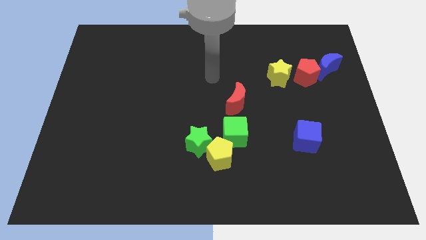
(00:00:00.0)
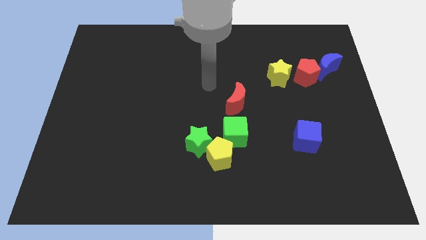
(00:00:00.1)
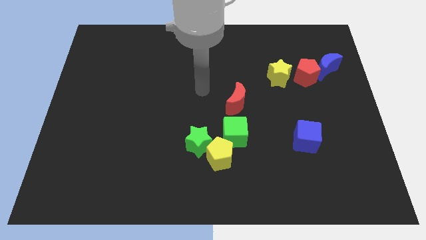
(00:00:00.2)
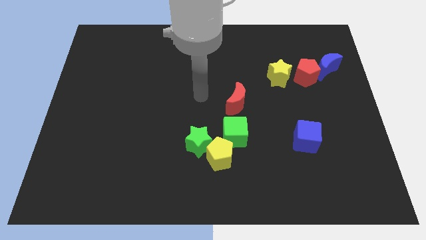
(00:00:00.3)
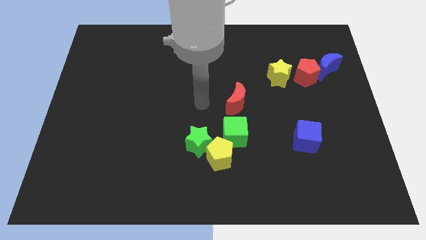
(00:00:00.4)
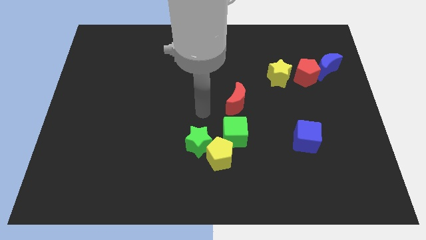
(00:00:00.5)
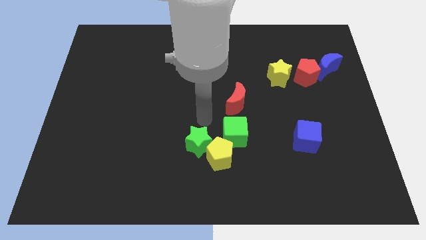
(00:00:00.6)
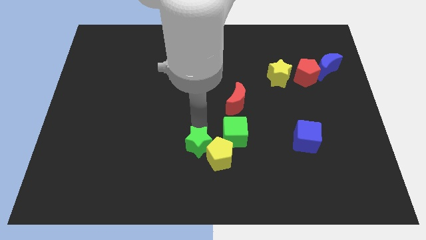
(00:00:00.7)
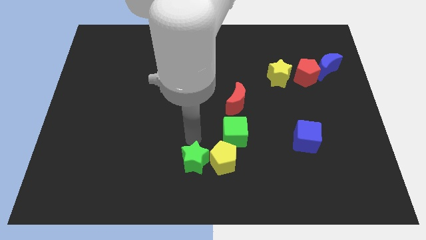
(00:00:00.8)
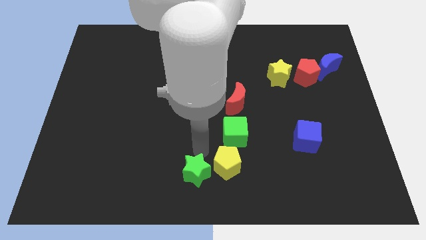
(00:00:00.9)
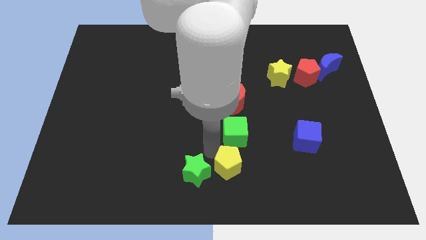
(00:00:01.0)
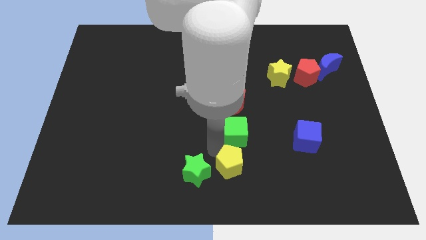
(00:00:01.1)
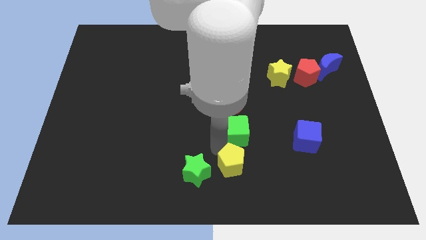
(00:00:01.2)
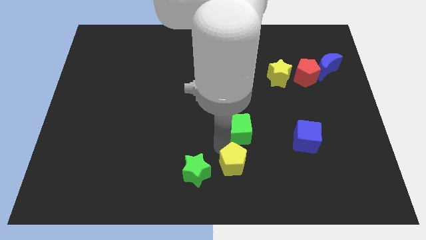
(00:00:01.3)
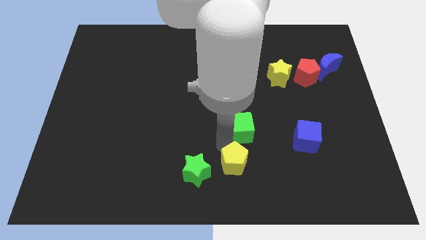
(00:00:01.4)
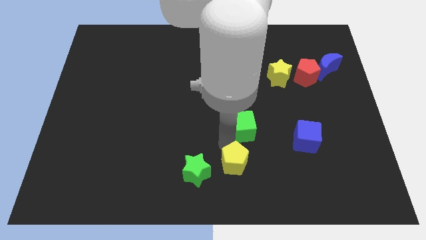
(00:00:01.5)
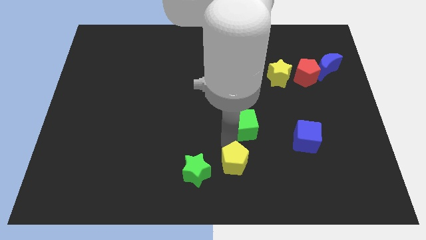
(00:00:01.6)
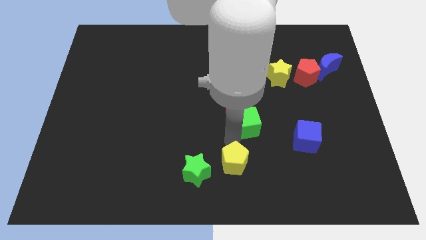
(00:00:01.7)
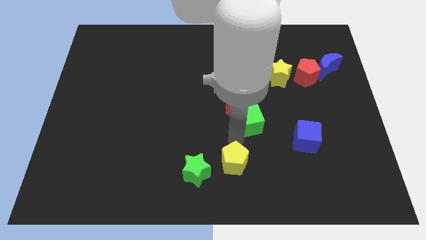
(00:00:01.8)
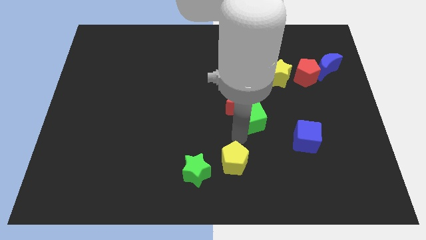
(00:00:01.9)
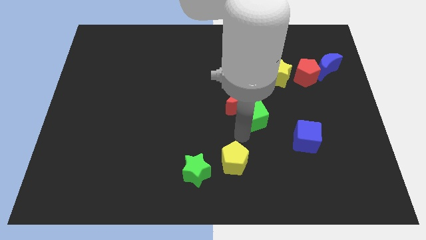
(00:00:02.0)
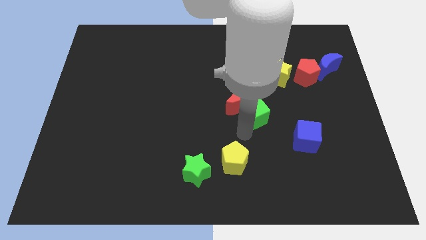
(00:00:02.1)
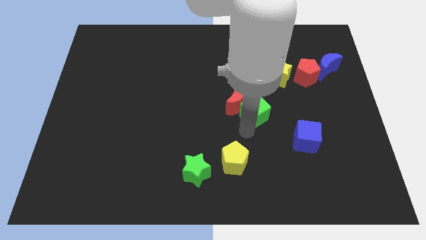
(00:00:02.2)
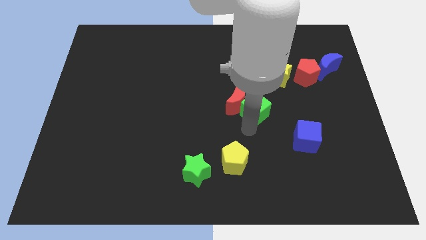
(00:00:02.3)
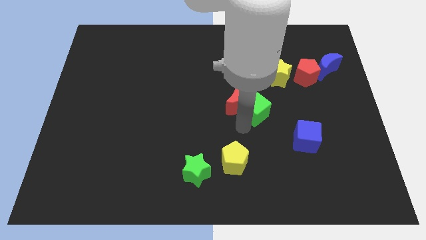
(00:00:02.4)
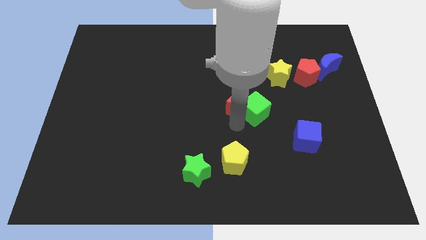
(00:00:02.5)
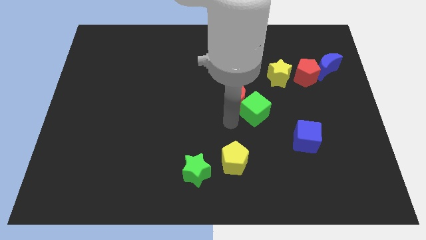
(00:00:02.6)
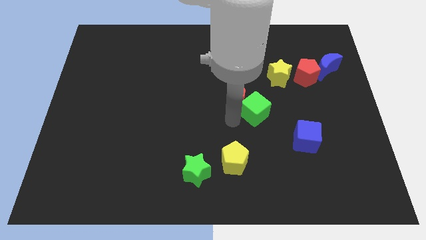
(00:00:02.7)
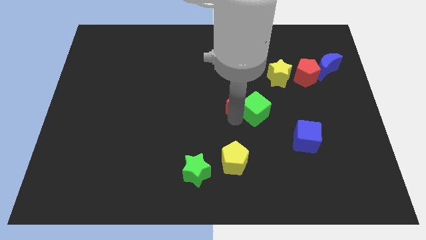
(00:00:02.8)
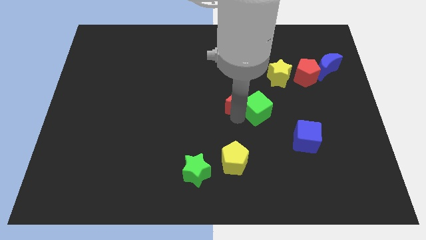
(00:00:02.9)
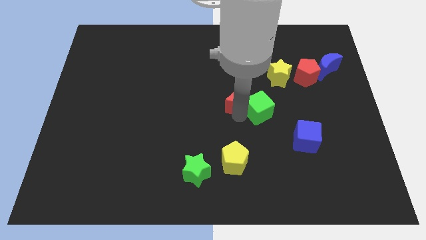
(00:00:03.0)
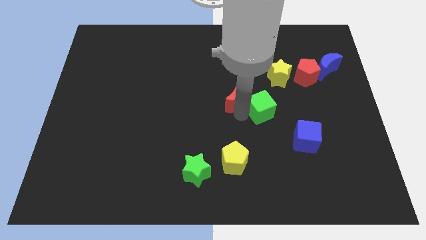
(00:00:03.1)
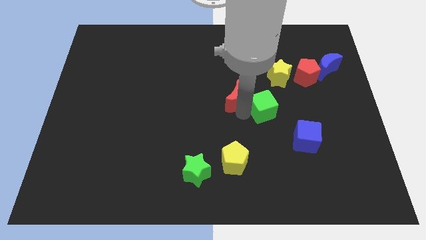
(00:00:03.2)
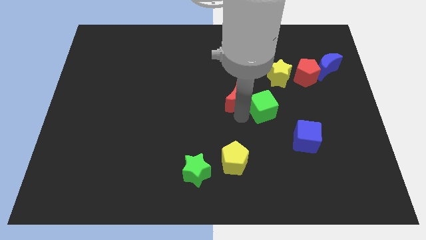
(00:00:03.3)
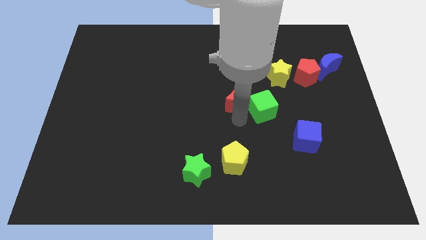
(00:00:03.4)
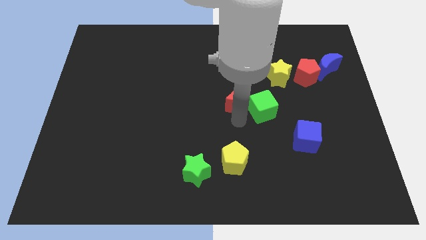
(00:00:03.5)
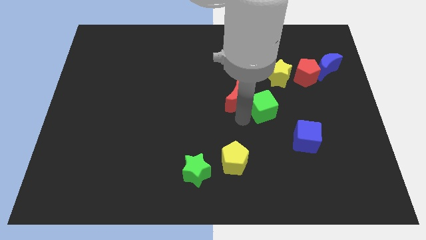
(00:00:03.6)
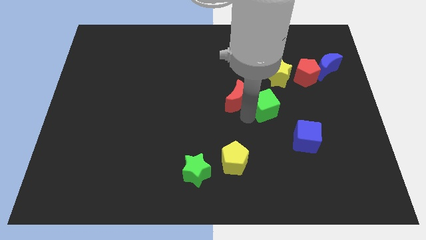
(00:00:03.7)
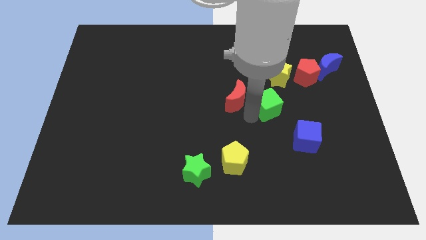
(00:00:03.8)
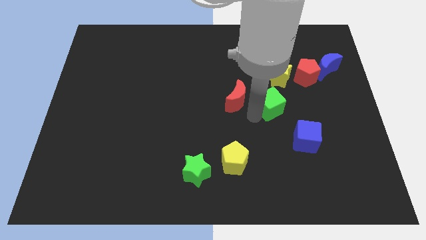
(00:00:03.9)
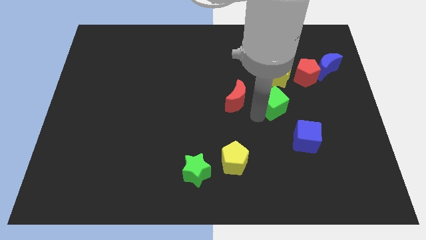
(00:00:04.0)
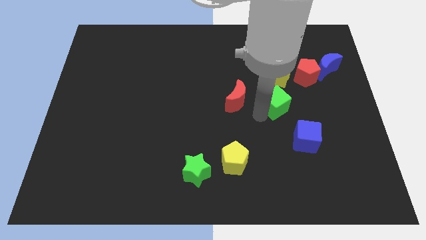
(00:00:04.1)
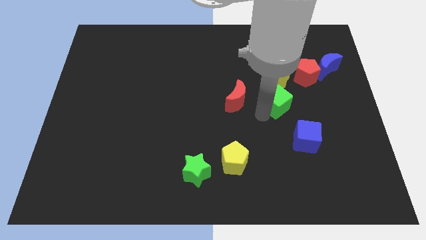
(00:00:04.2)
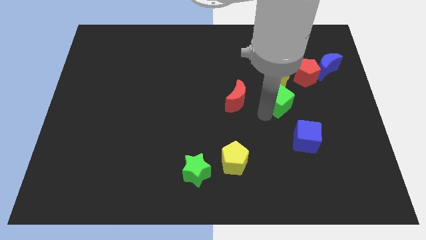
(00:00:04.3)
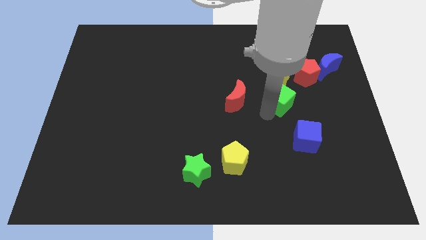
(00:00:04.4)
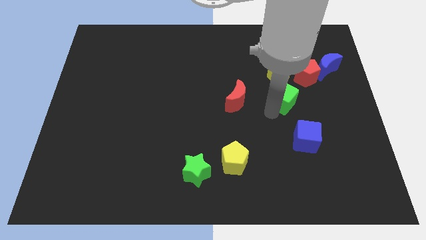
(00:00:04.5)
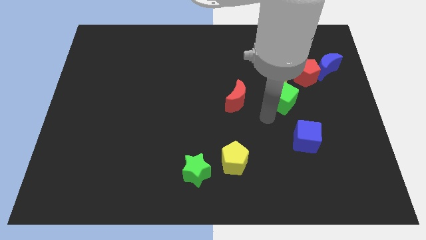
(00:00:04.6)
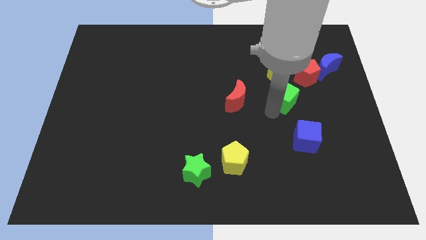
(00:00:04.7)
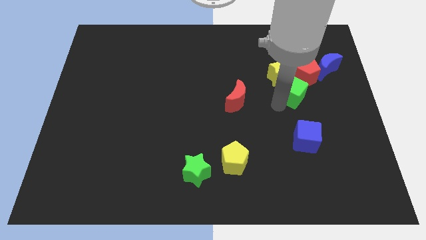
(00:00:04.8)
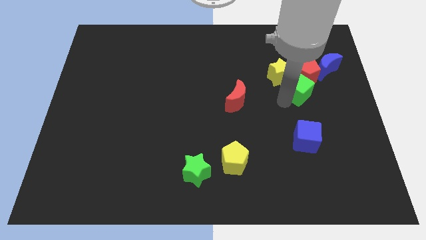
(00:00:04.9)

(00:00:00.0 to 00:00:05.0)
move the green cube to the red pentagon

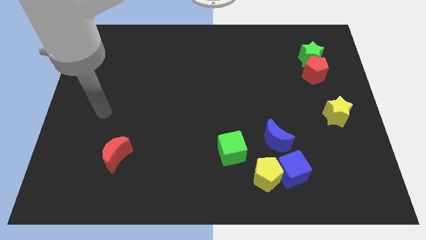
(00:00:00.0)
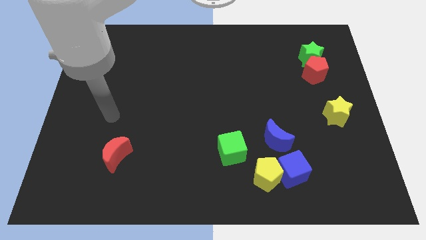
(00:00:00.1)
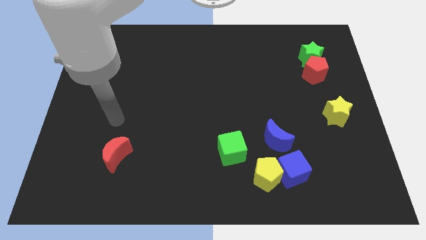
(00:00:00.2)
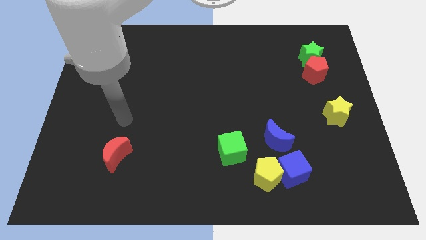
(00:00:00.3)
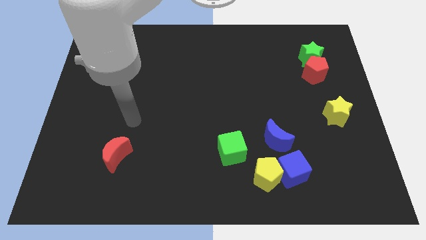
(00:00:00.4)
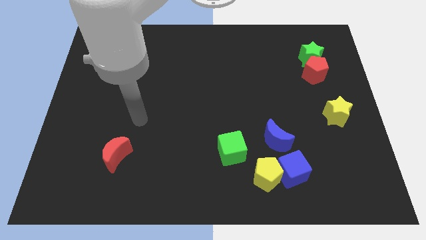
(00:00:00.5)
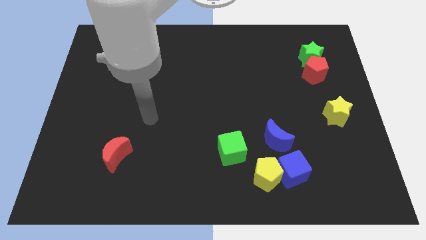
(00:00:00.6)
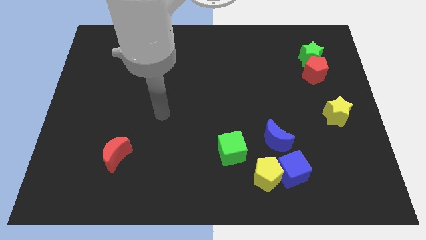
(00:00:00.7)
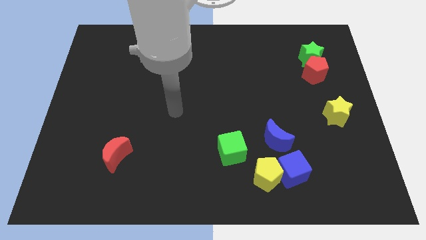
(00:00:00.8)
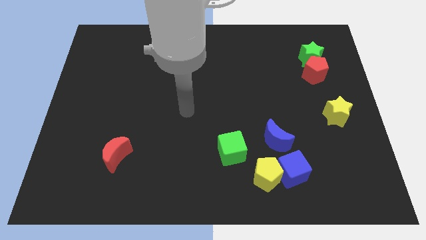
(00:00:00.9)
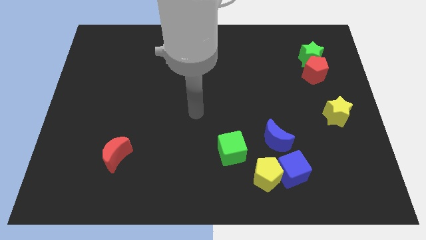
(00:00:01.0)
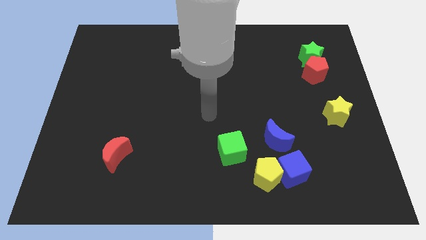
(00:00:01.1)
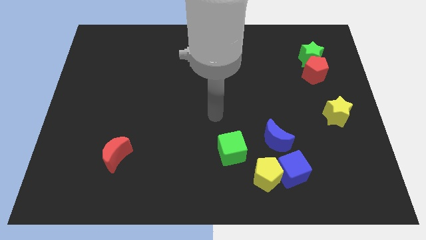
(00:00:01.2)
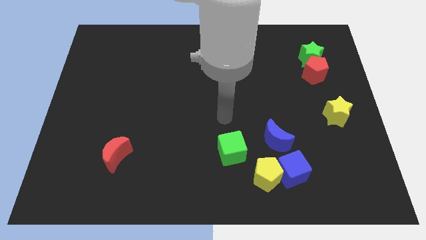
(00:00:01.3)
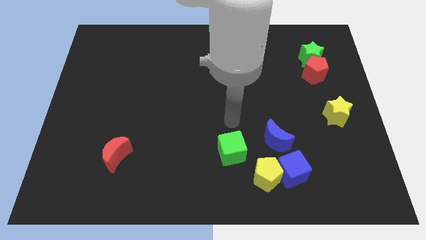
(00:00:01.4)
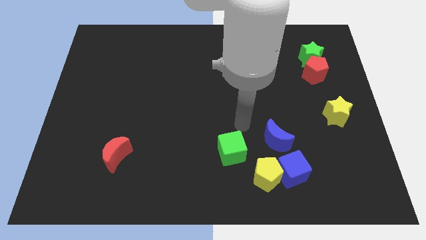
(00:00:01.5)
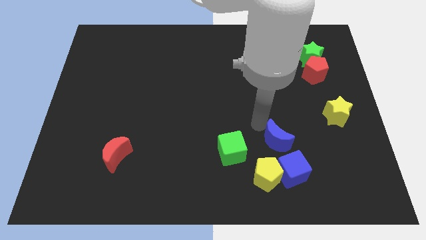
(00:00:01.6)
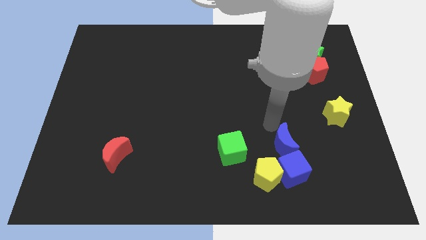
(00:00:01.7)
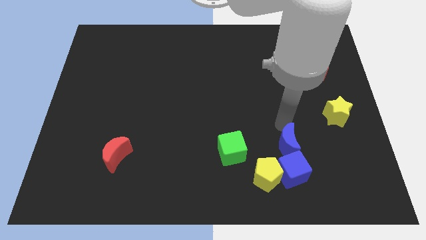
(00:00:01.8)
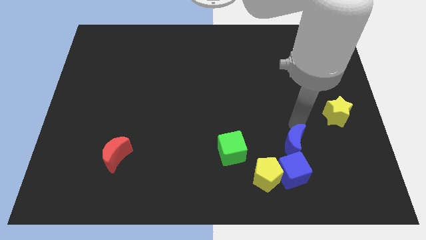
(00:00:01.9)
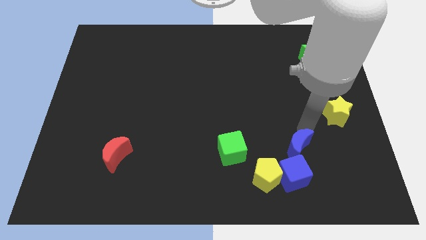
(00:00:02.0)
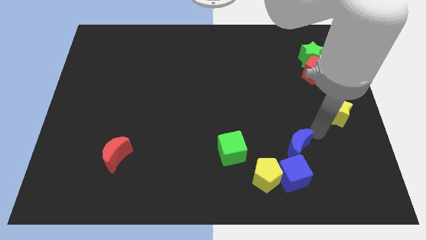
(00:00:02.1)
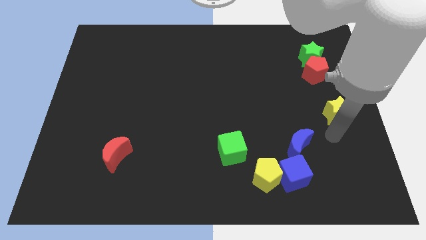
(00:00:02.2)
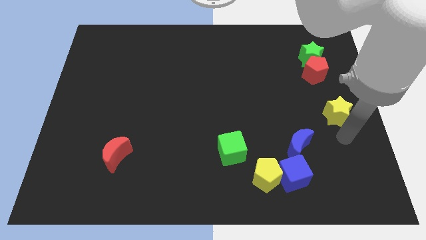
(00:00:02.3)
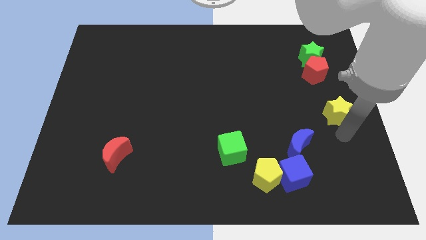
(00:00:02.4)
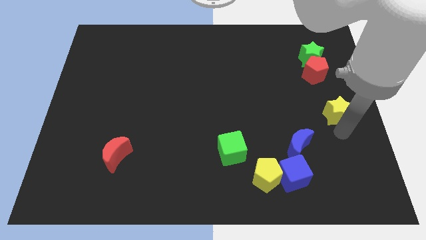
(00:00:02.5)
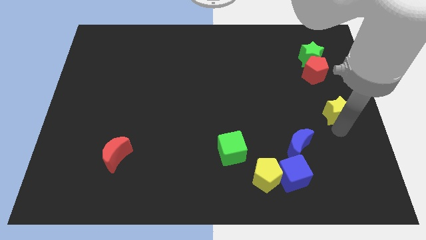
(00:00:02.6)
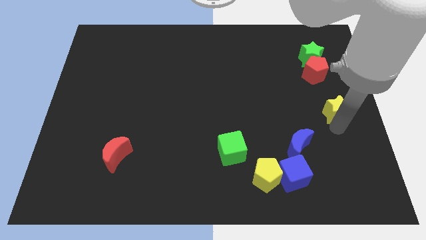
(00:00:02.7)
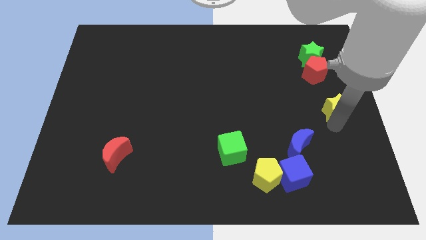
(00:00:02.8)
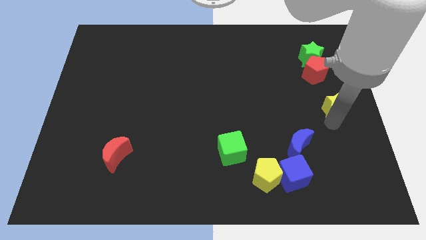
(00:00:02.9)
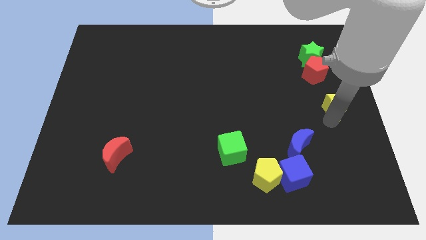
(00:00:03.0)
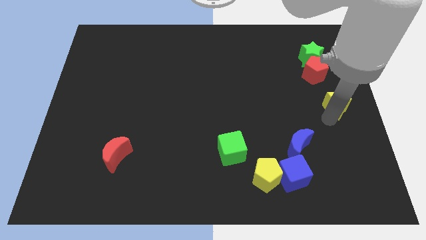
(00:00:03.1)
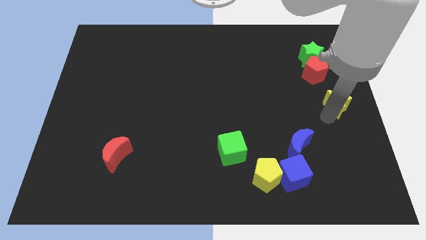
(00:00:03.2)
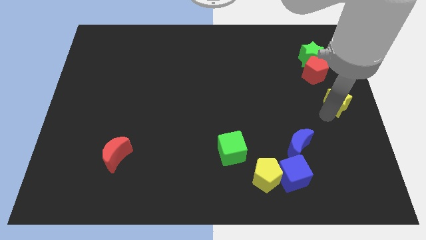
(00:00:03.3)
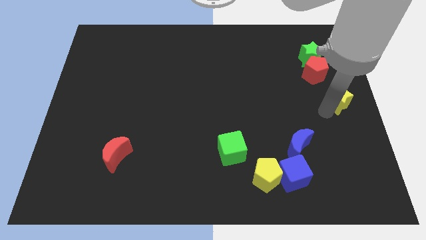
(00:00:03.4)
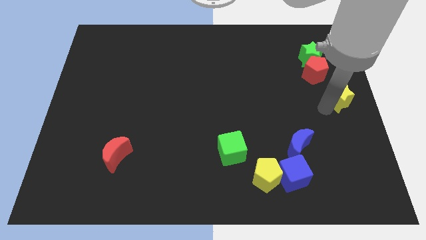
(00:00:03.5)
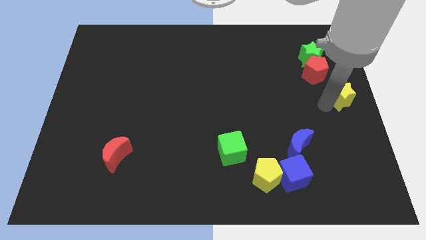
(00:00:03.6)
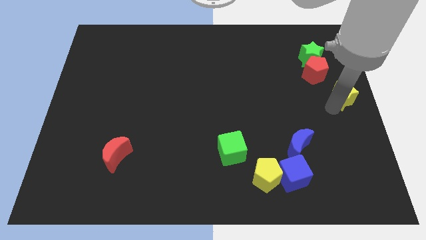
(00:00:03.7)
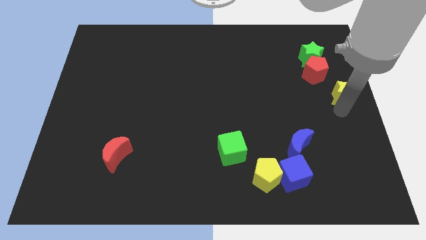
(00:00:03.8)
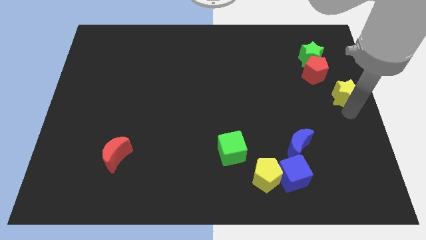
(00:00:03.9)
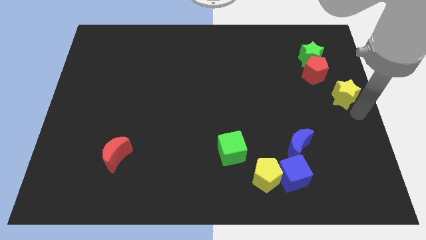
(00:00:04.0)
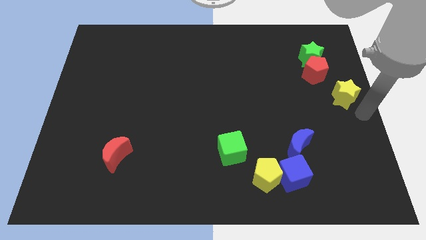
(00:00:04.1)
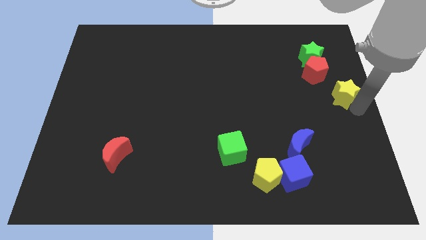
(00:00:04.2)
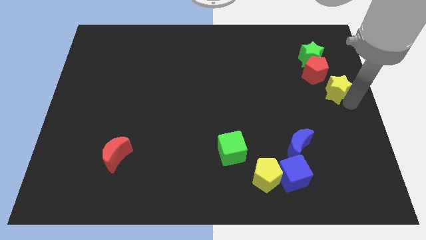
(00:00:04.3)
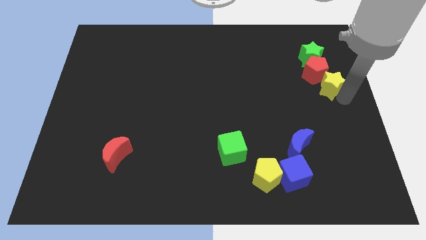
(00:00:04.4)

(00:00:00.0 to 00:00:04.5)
move the yellow star close to the red pentagon
